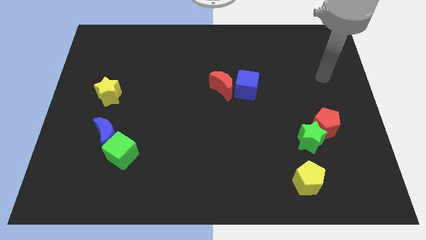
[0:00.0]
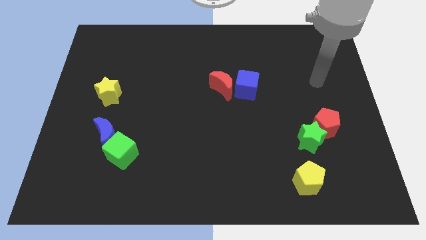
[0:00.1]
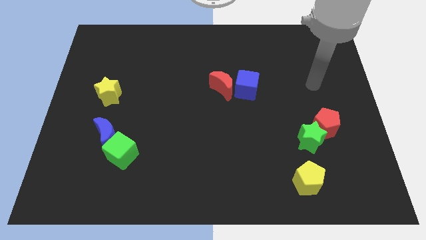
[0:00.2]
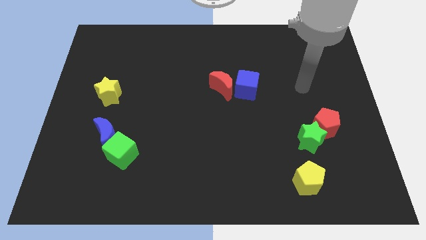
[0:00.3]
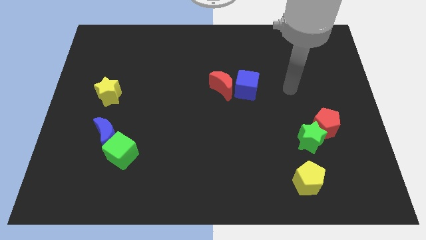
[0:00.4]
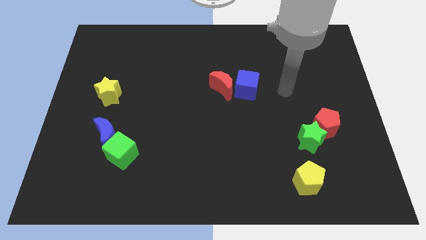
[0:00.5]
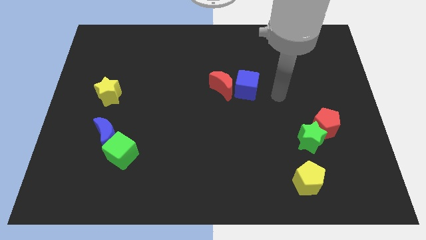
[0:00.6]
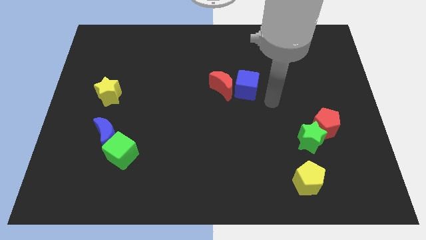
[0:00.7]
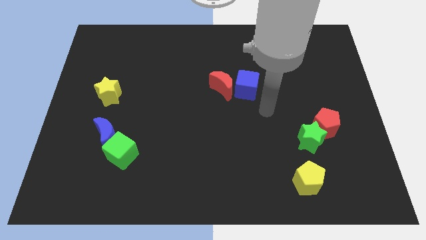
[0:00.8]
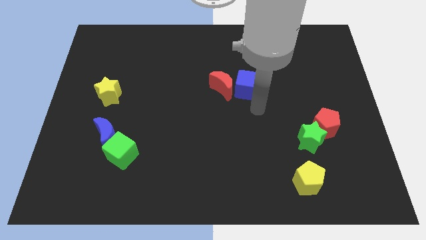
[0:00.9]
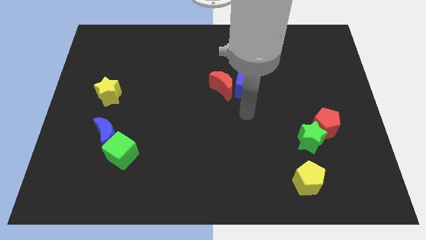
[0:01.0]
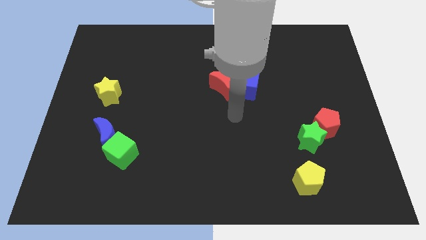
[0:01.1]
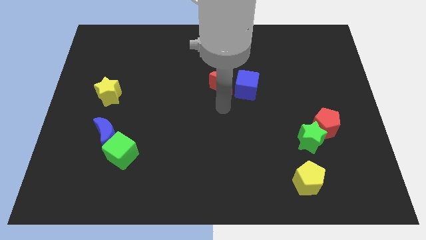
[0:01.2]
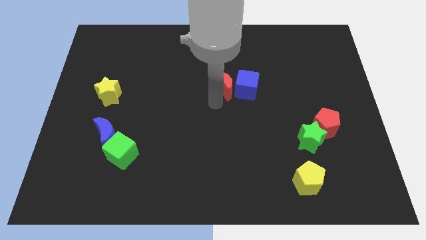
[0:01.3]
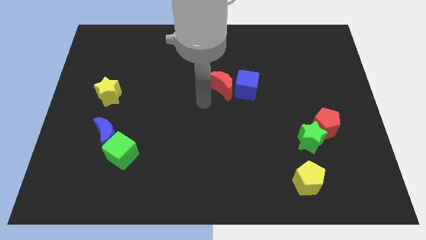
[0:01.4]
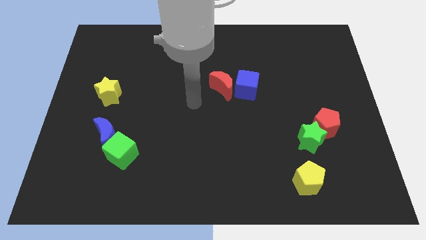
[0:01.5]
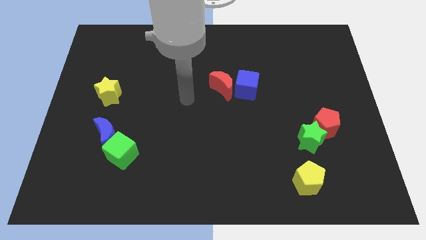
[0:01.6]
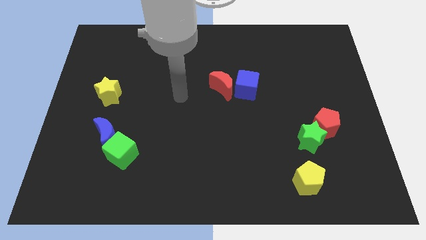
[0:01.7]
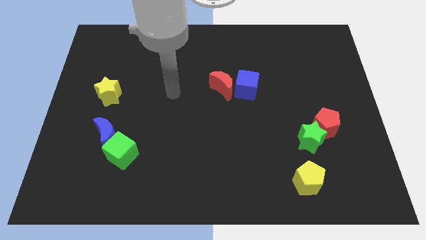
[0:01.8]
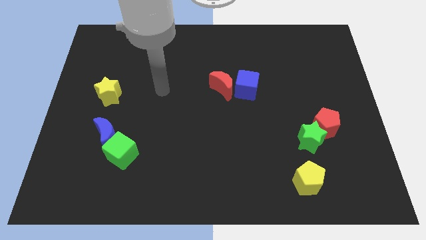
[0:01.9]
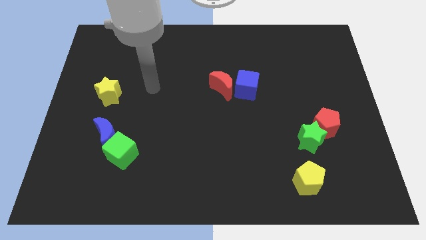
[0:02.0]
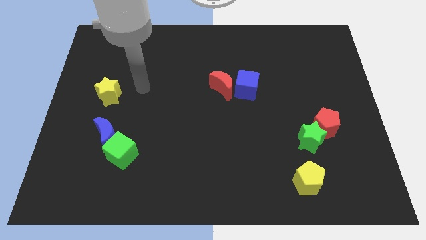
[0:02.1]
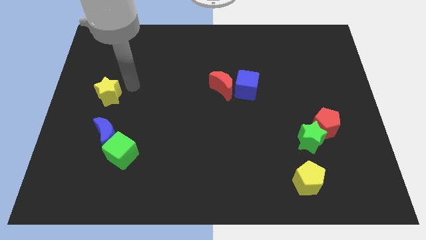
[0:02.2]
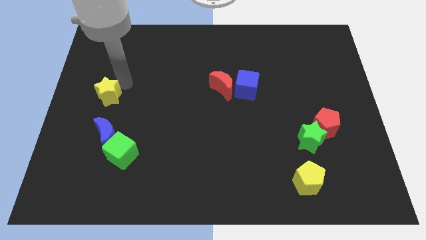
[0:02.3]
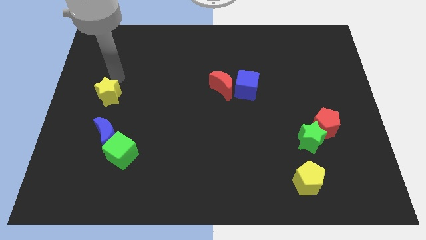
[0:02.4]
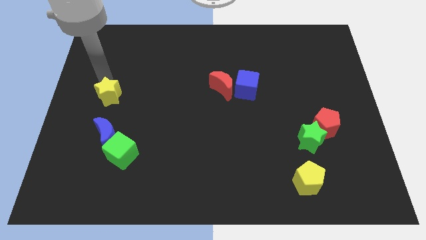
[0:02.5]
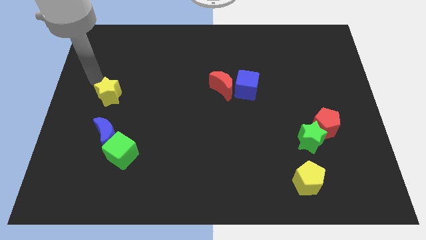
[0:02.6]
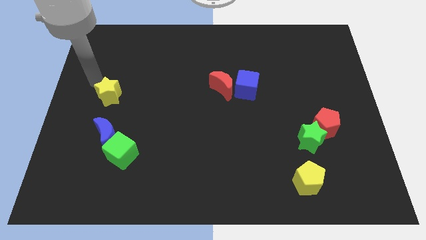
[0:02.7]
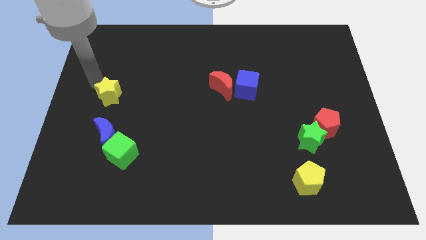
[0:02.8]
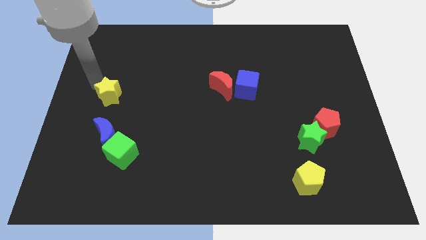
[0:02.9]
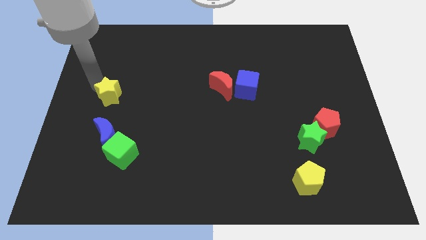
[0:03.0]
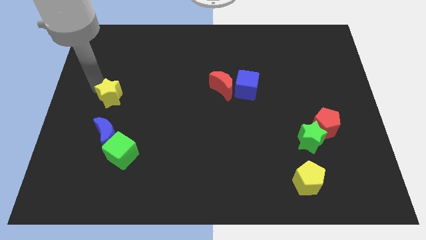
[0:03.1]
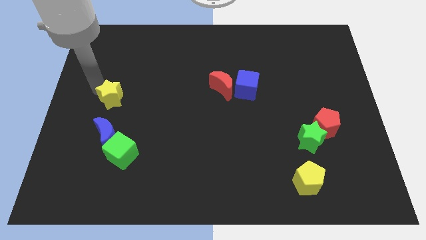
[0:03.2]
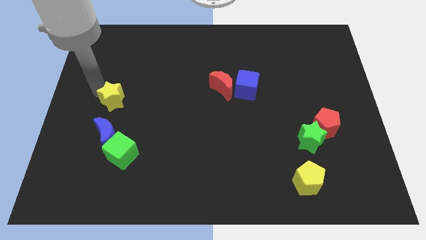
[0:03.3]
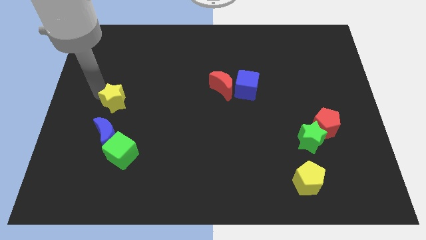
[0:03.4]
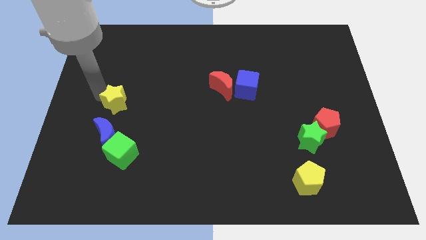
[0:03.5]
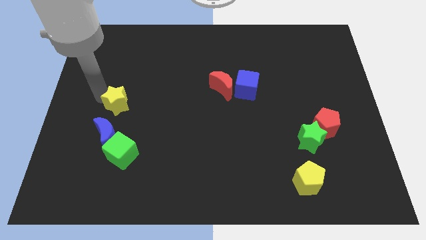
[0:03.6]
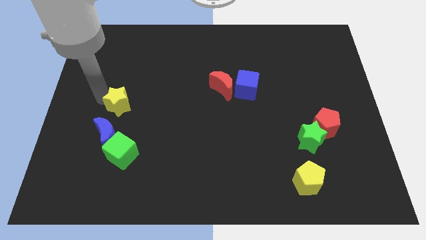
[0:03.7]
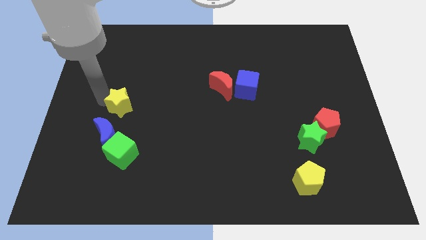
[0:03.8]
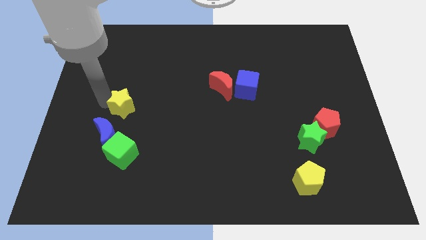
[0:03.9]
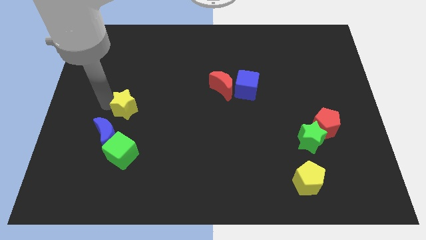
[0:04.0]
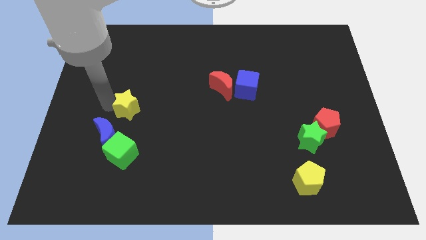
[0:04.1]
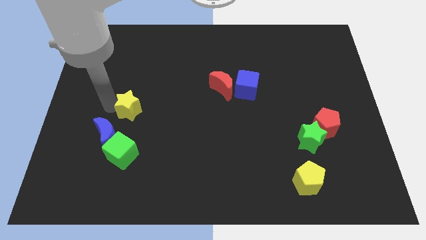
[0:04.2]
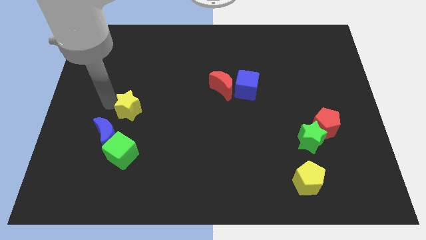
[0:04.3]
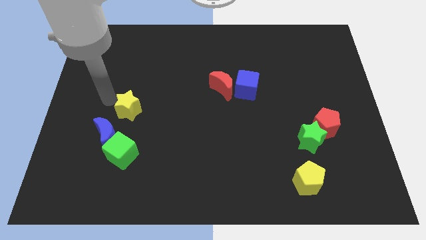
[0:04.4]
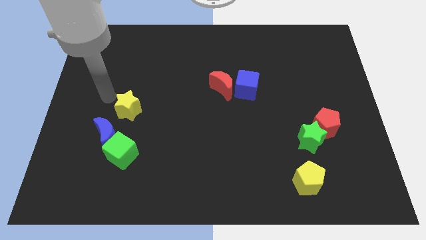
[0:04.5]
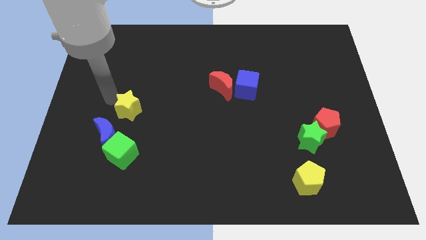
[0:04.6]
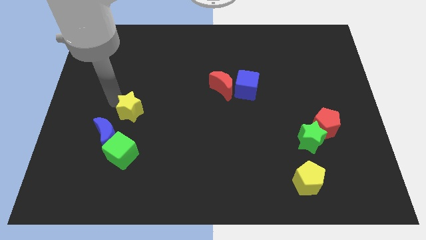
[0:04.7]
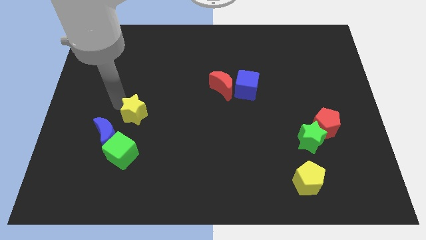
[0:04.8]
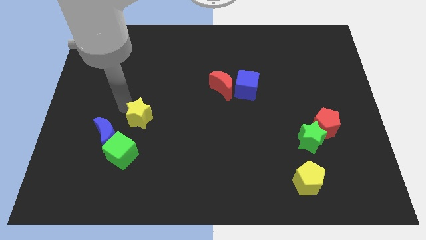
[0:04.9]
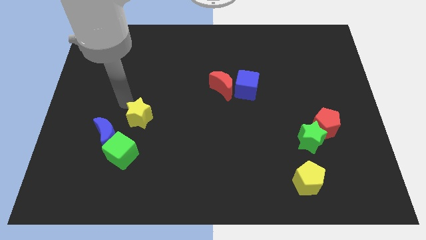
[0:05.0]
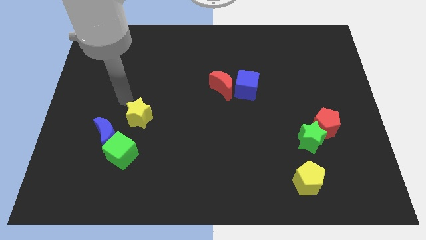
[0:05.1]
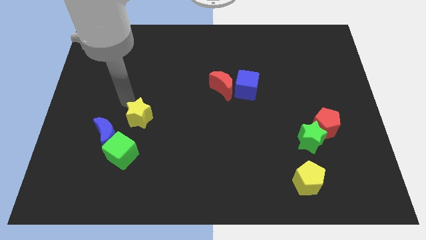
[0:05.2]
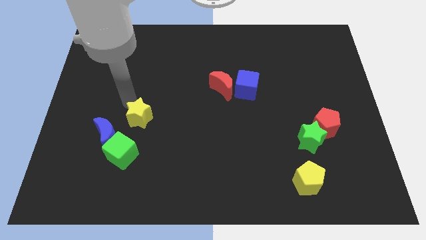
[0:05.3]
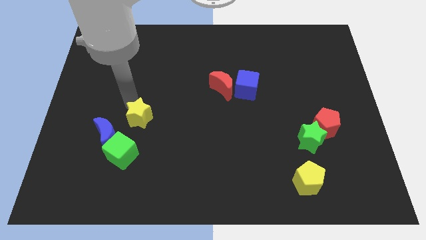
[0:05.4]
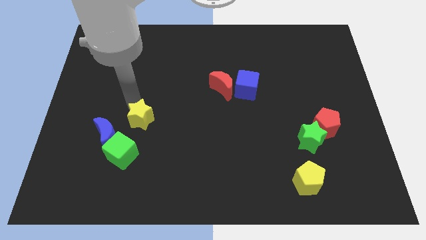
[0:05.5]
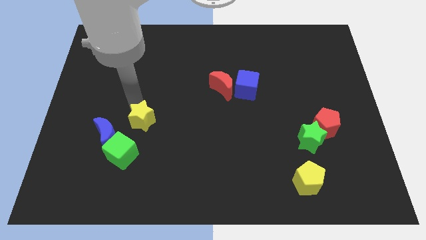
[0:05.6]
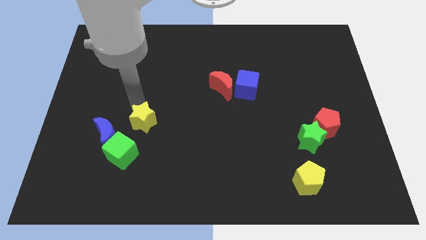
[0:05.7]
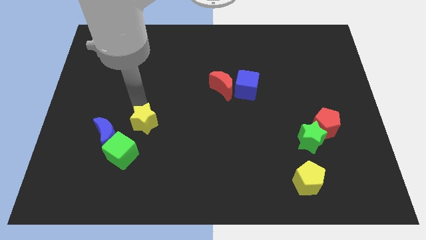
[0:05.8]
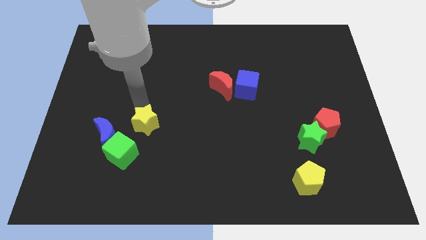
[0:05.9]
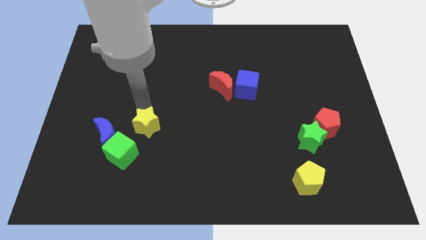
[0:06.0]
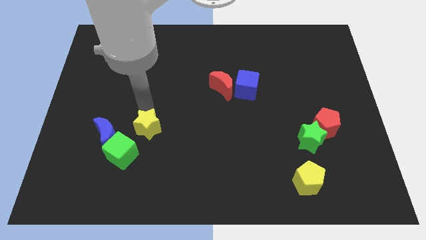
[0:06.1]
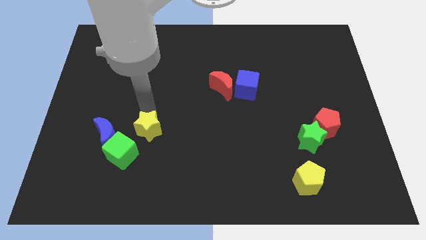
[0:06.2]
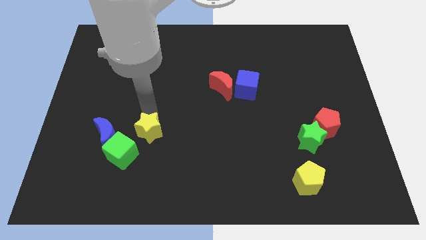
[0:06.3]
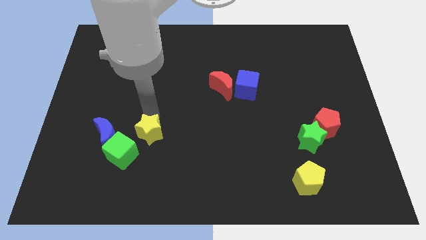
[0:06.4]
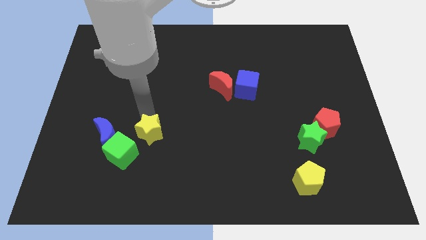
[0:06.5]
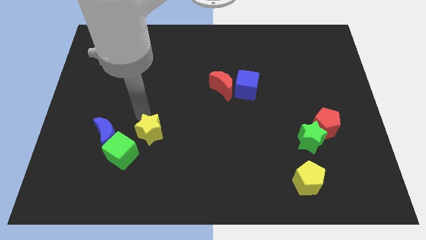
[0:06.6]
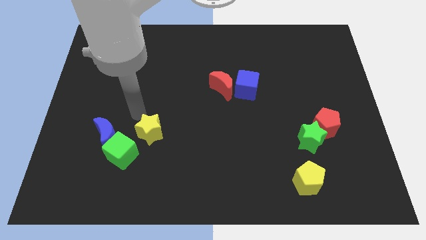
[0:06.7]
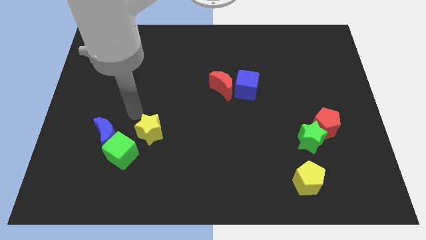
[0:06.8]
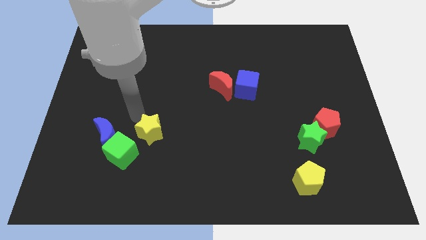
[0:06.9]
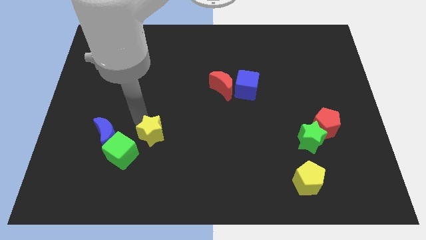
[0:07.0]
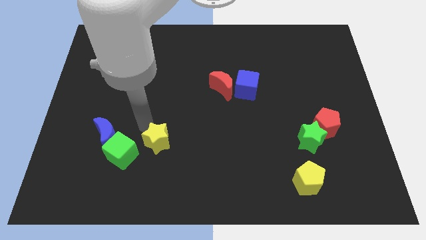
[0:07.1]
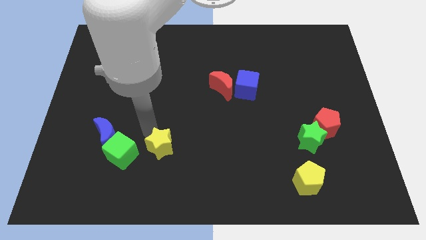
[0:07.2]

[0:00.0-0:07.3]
push the yellow star down and to the right diagonally

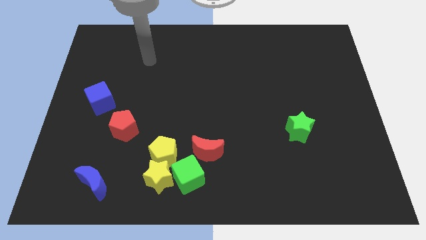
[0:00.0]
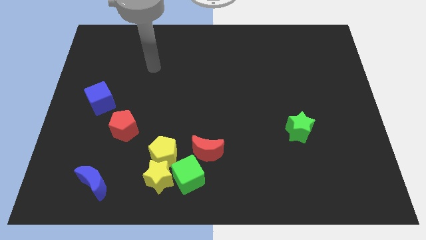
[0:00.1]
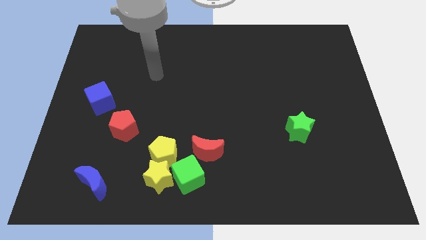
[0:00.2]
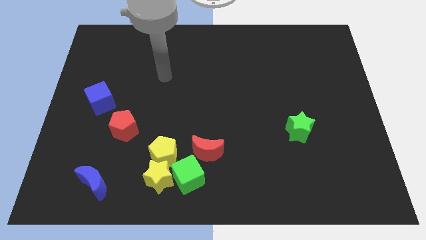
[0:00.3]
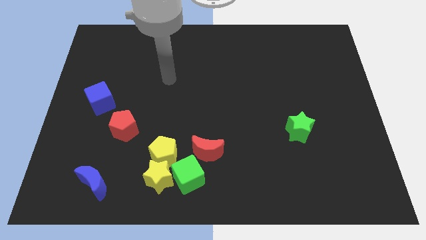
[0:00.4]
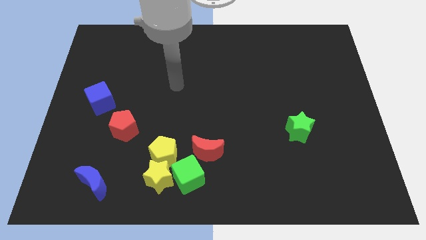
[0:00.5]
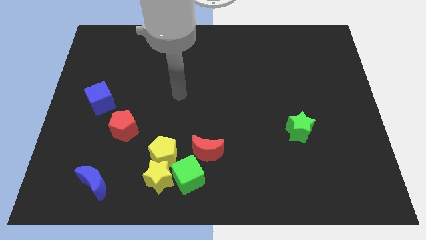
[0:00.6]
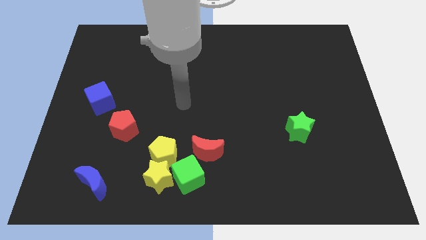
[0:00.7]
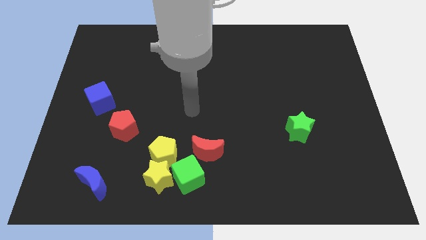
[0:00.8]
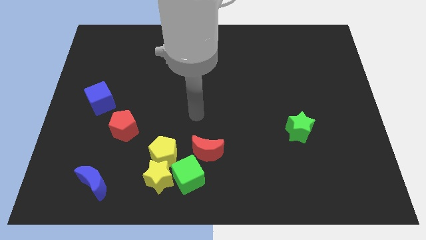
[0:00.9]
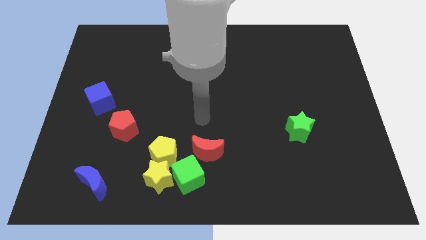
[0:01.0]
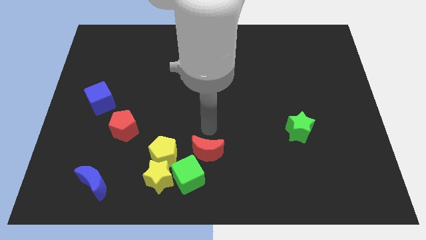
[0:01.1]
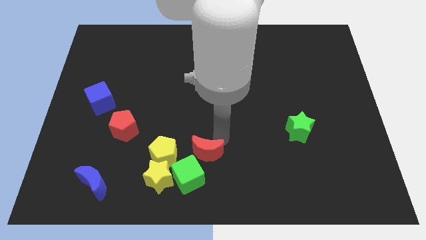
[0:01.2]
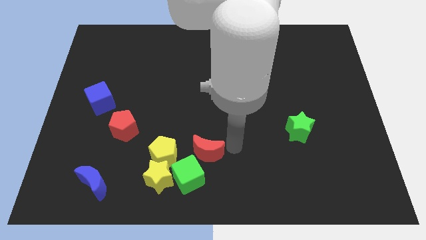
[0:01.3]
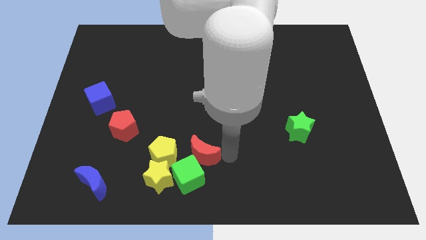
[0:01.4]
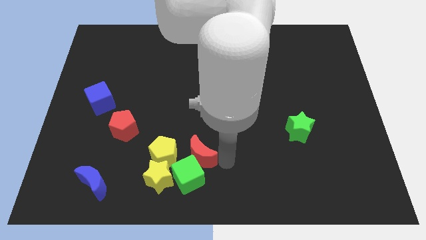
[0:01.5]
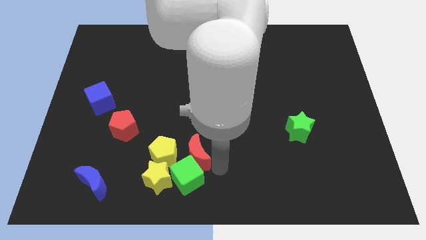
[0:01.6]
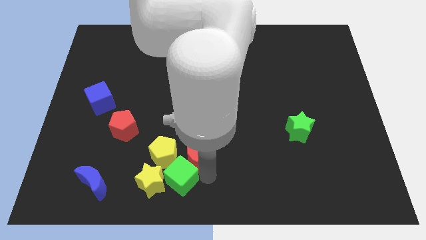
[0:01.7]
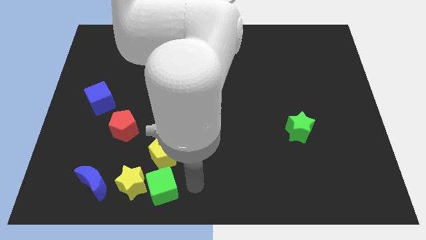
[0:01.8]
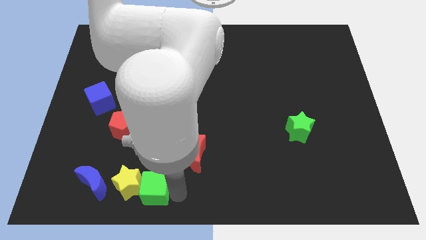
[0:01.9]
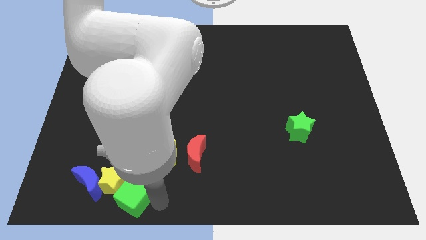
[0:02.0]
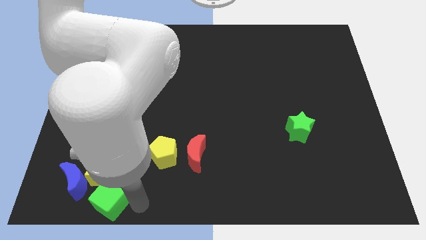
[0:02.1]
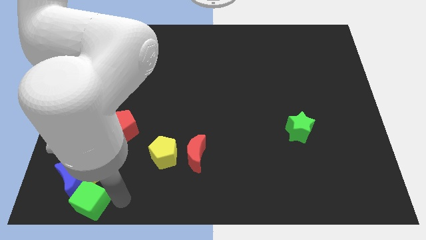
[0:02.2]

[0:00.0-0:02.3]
slide the yellow star up and then left somewhat
